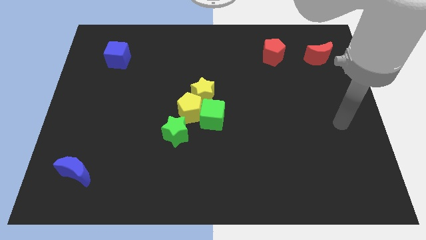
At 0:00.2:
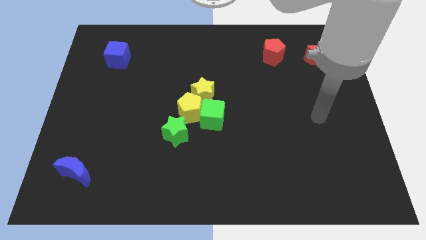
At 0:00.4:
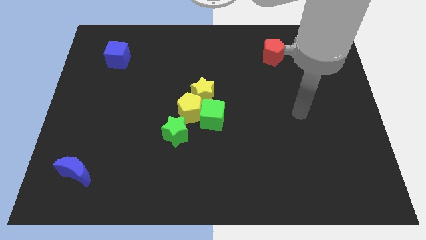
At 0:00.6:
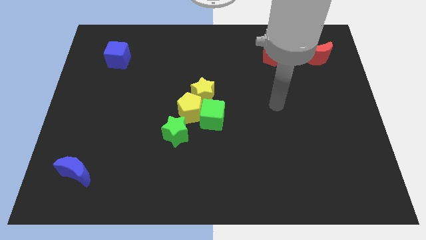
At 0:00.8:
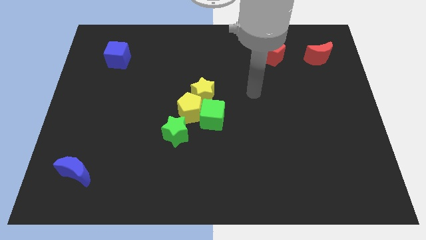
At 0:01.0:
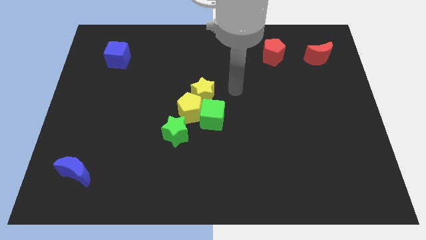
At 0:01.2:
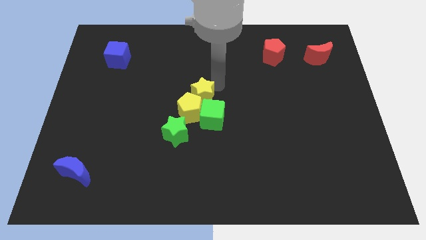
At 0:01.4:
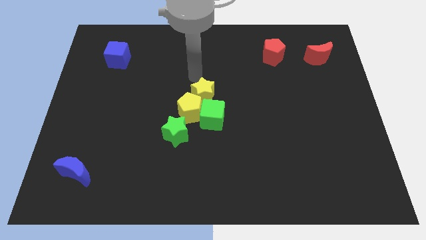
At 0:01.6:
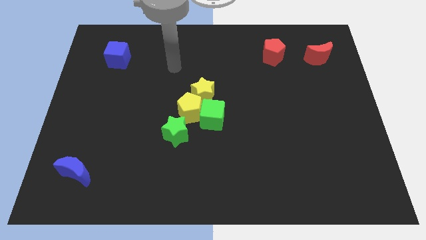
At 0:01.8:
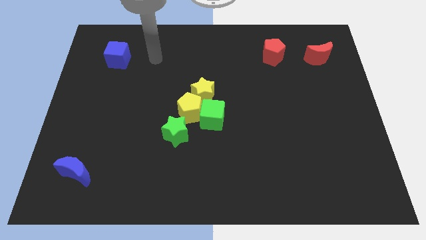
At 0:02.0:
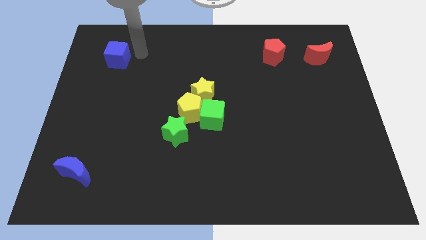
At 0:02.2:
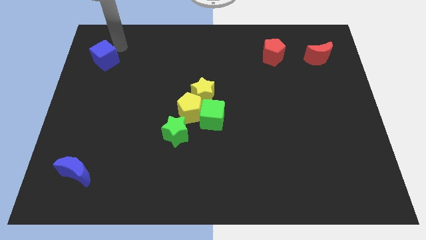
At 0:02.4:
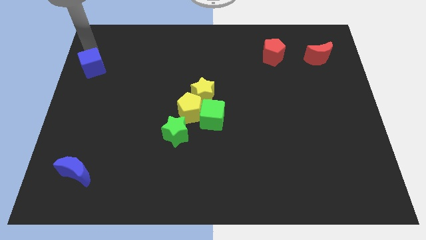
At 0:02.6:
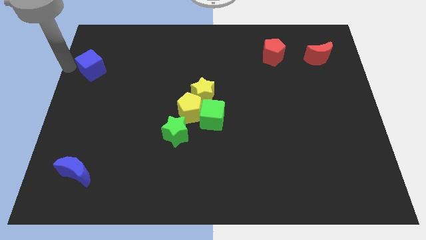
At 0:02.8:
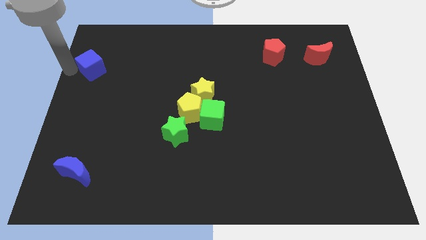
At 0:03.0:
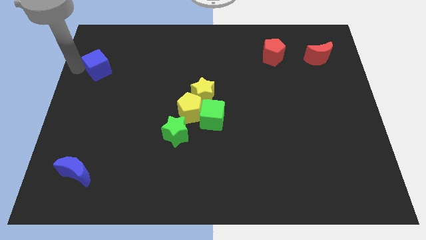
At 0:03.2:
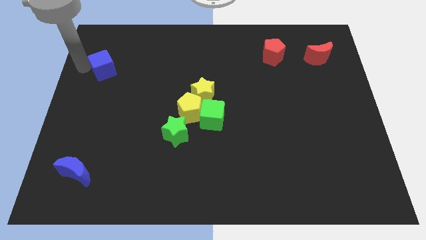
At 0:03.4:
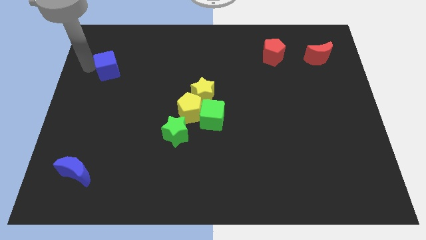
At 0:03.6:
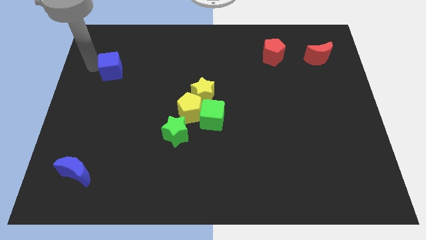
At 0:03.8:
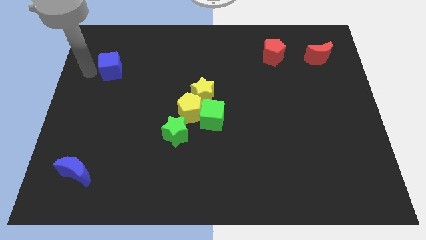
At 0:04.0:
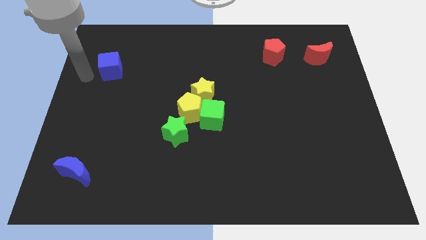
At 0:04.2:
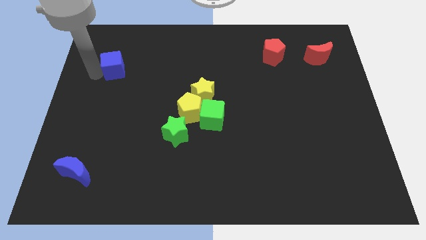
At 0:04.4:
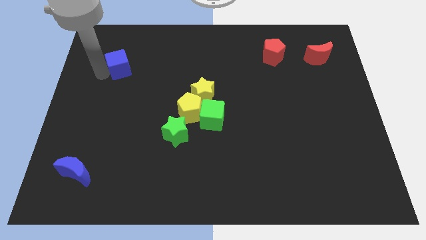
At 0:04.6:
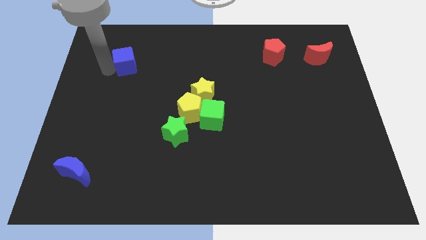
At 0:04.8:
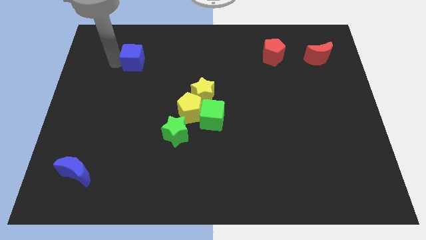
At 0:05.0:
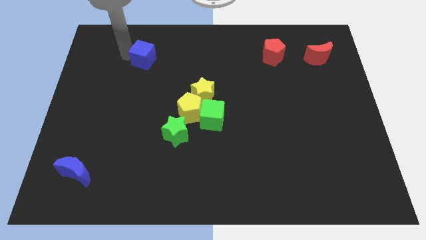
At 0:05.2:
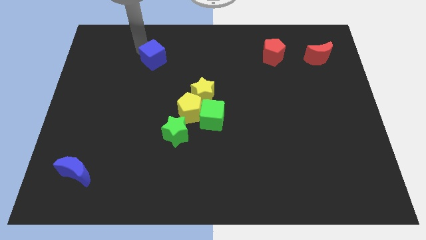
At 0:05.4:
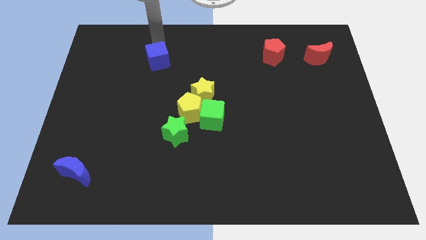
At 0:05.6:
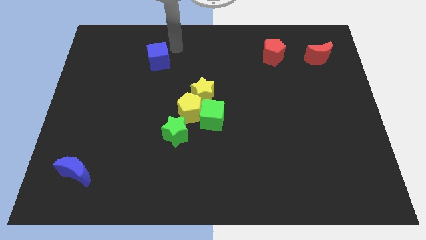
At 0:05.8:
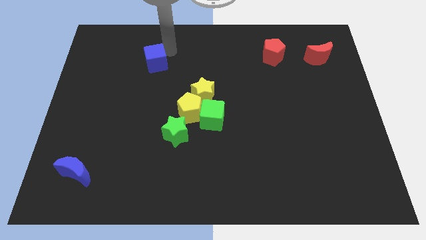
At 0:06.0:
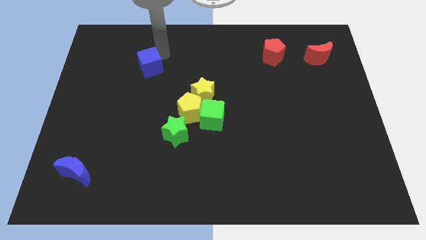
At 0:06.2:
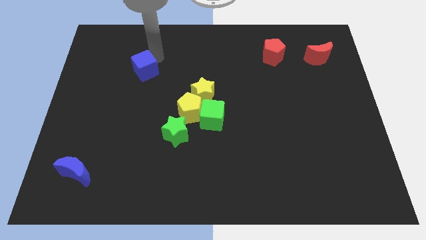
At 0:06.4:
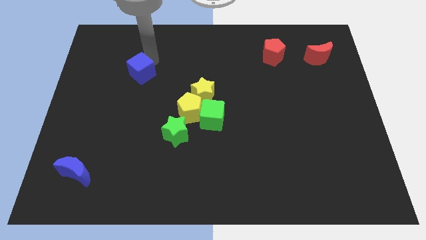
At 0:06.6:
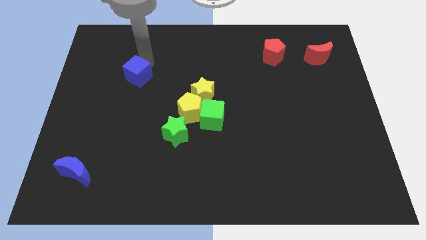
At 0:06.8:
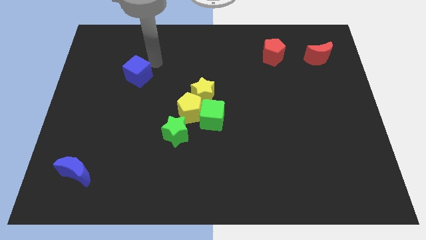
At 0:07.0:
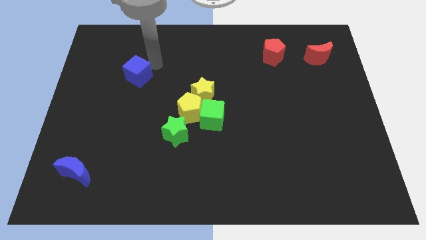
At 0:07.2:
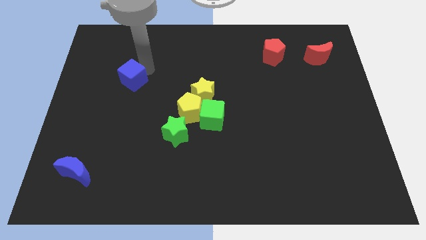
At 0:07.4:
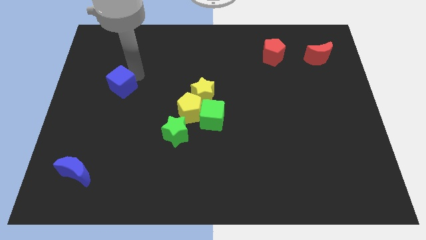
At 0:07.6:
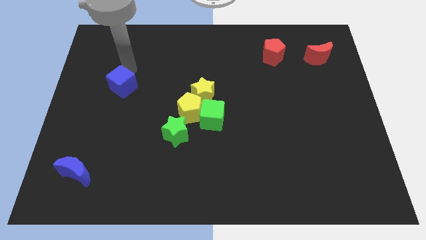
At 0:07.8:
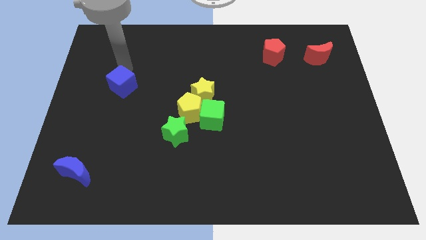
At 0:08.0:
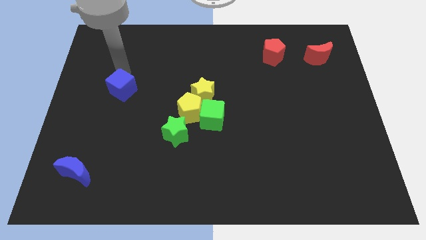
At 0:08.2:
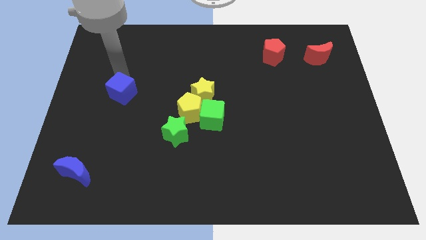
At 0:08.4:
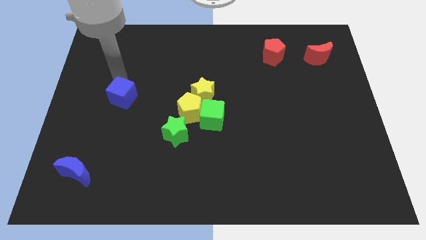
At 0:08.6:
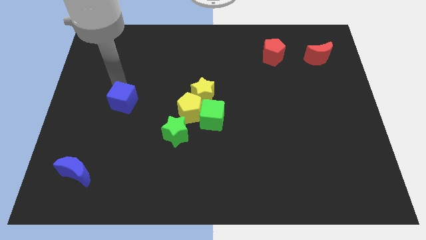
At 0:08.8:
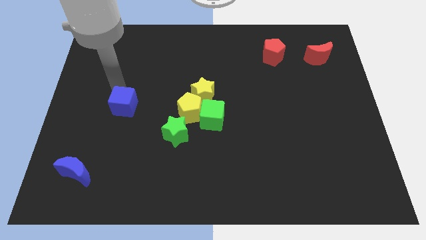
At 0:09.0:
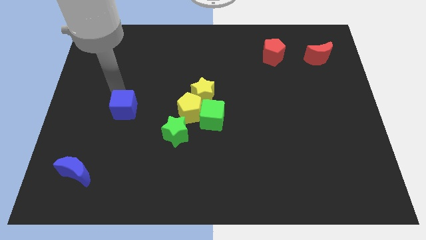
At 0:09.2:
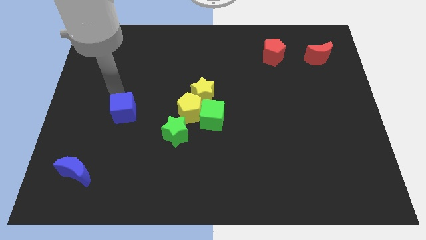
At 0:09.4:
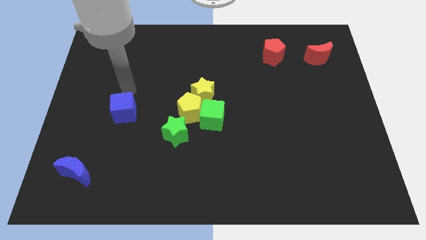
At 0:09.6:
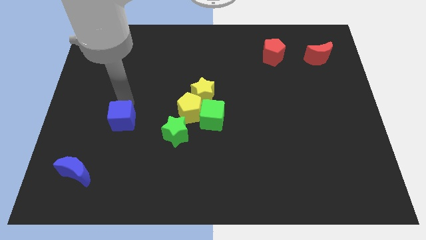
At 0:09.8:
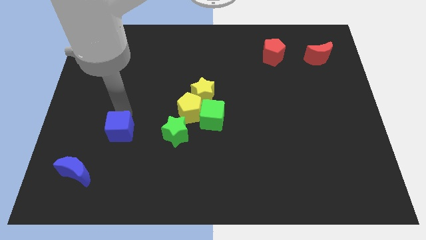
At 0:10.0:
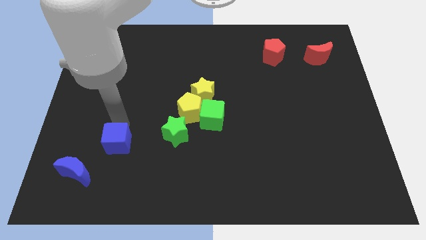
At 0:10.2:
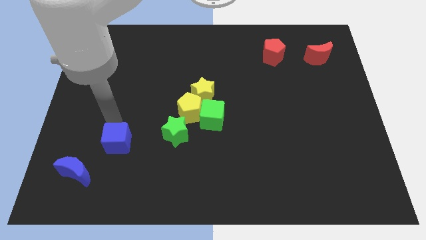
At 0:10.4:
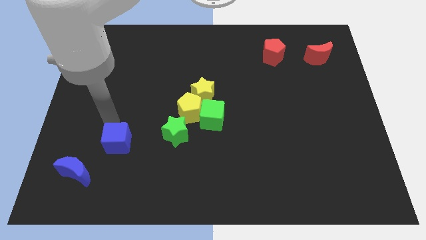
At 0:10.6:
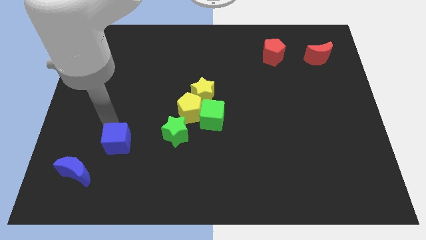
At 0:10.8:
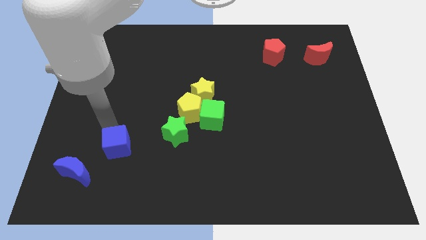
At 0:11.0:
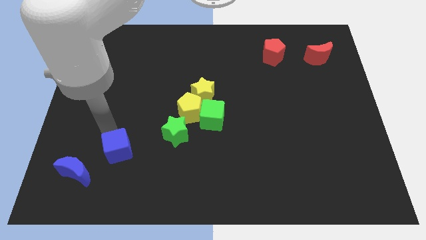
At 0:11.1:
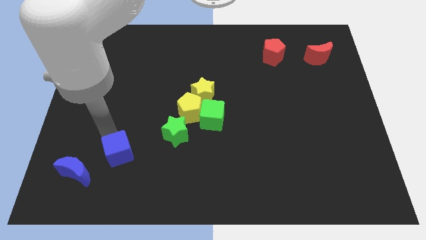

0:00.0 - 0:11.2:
move the blue cube just right of the blue moon

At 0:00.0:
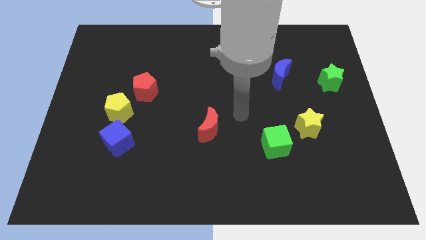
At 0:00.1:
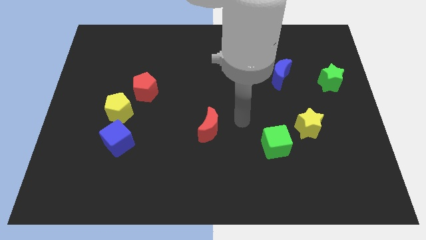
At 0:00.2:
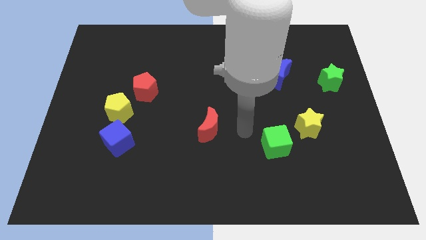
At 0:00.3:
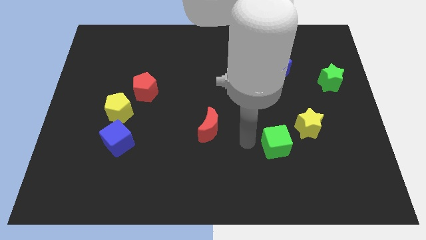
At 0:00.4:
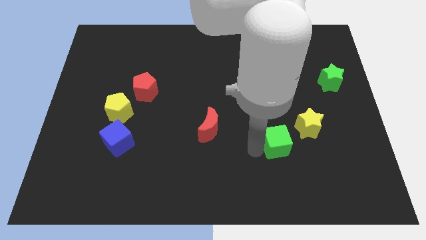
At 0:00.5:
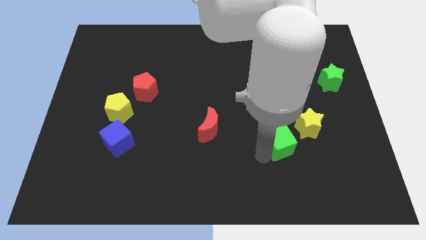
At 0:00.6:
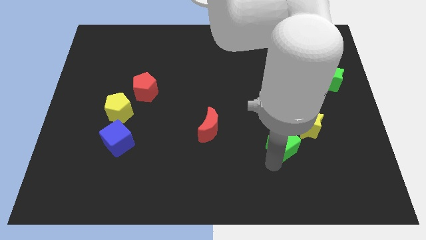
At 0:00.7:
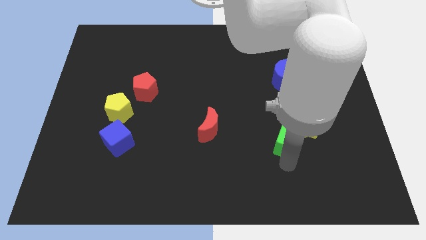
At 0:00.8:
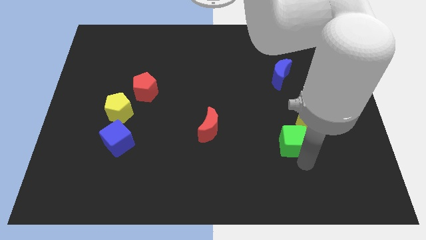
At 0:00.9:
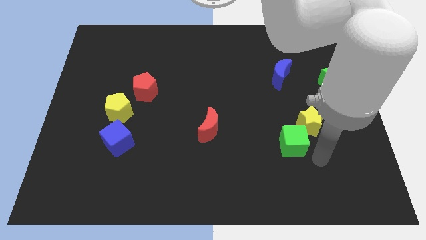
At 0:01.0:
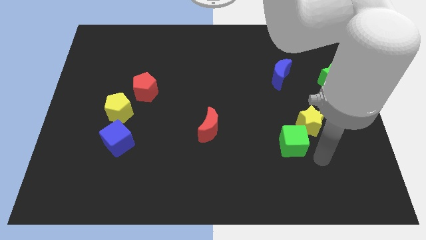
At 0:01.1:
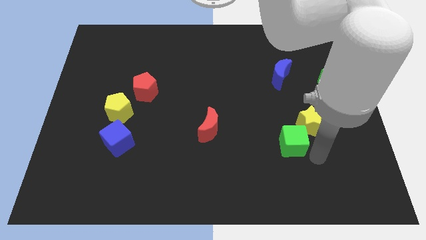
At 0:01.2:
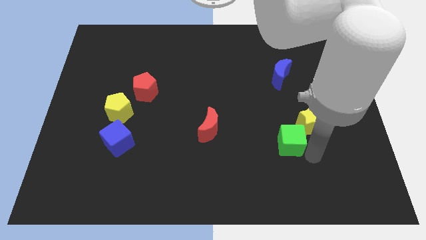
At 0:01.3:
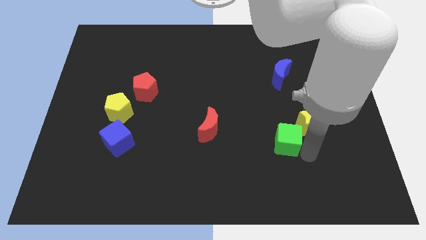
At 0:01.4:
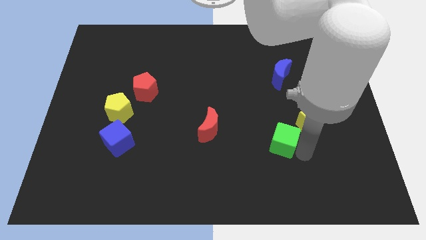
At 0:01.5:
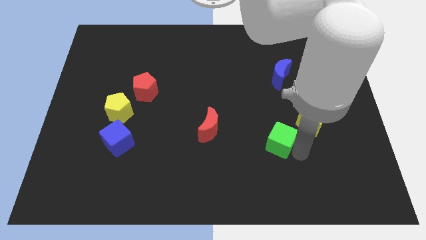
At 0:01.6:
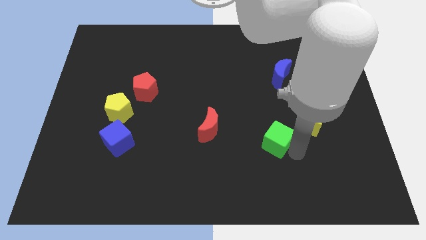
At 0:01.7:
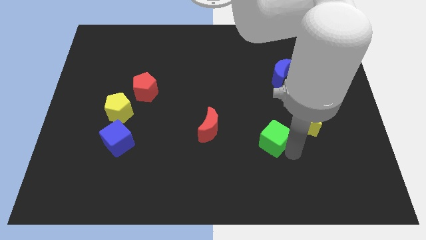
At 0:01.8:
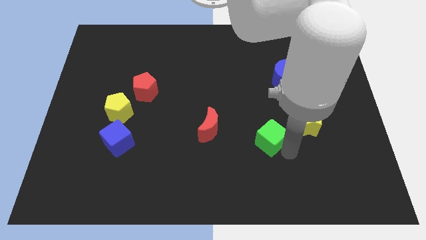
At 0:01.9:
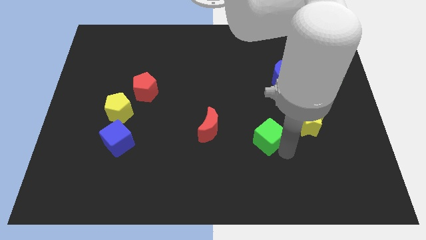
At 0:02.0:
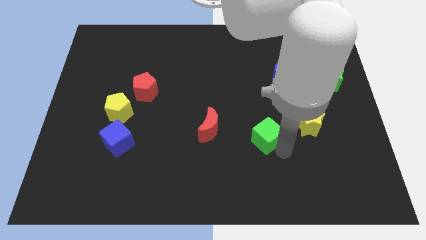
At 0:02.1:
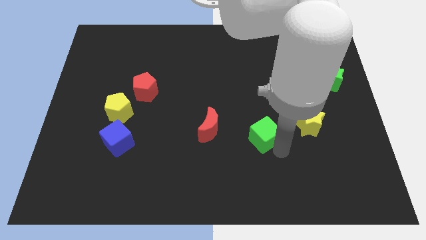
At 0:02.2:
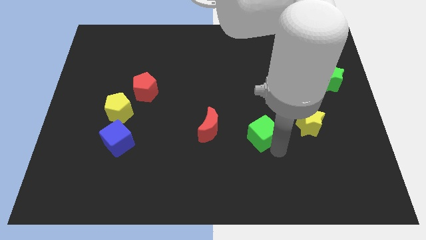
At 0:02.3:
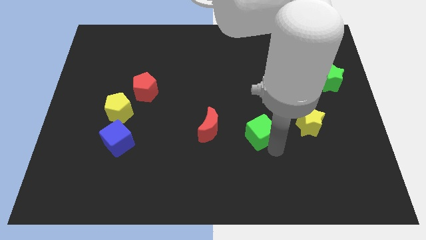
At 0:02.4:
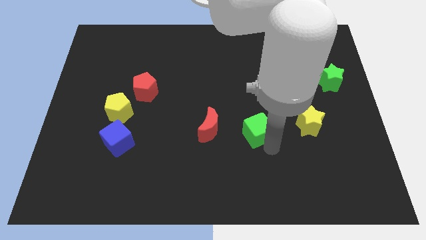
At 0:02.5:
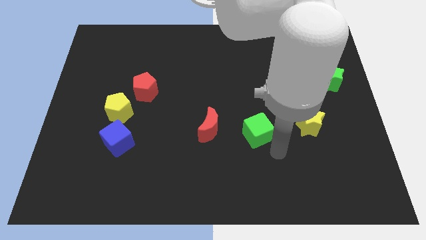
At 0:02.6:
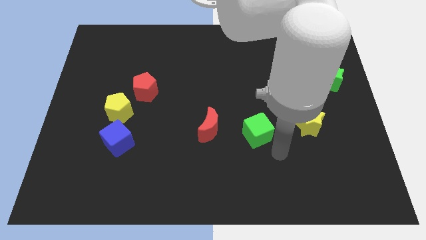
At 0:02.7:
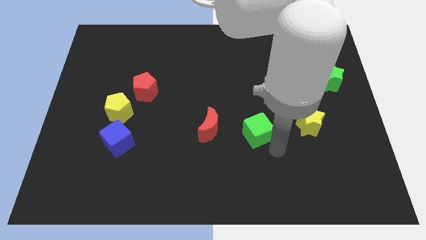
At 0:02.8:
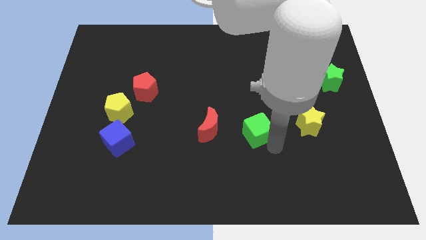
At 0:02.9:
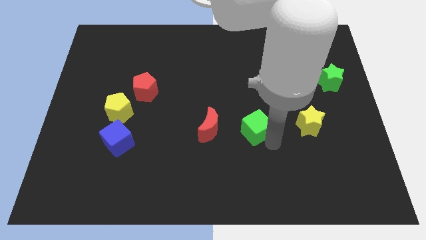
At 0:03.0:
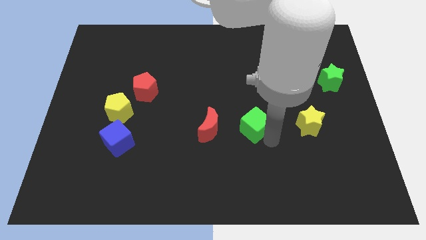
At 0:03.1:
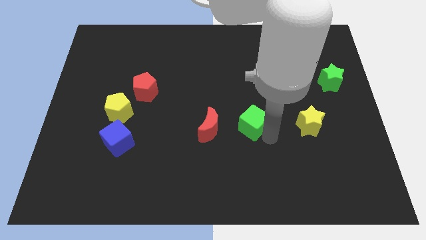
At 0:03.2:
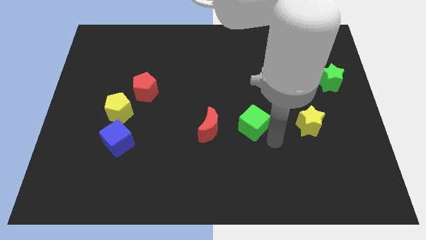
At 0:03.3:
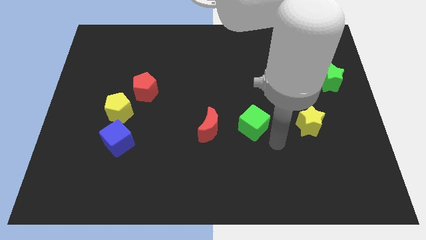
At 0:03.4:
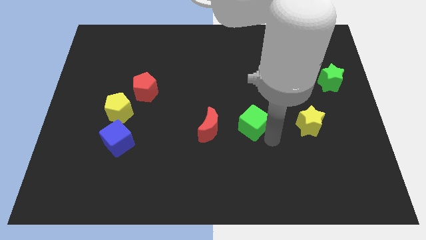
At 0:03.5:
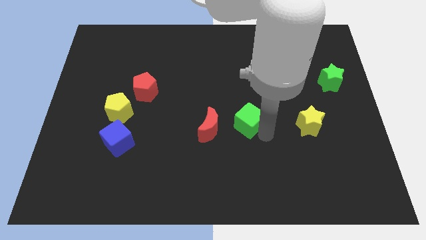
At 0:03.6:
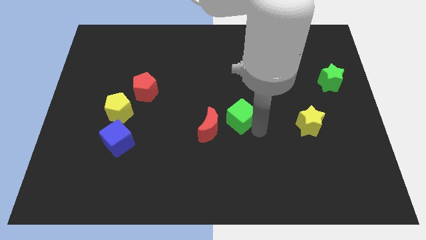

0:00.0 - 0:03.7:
put the green cube to the top right of the red moon
